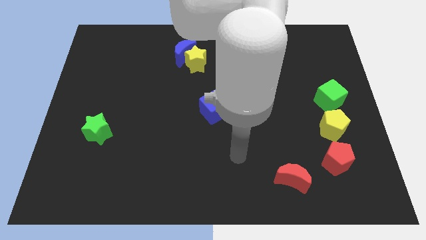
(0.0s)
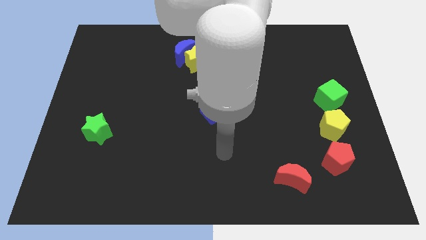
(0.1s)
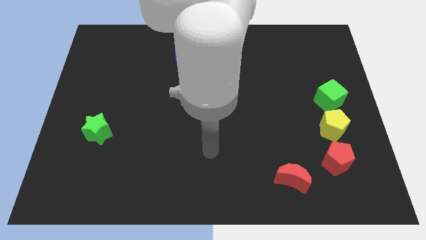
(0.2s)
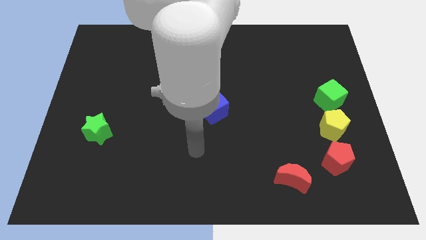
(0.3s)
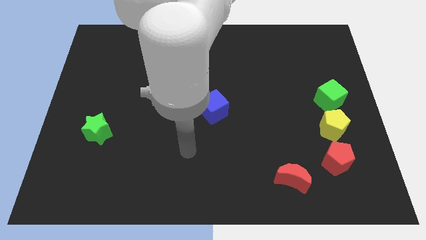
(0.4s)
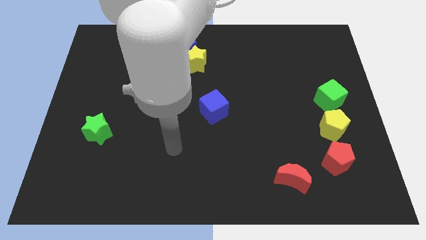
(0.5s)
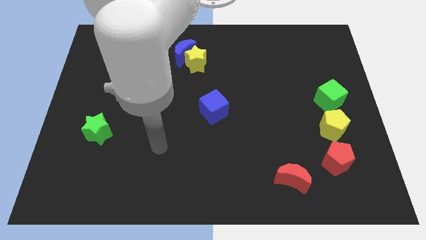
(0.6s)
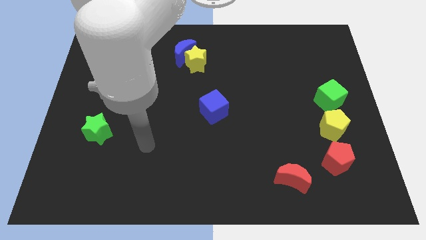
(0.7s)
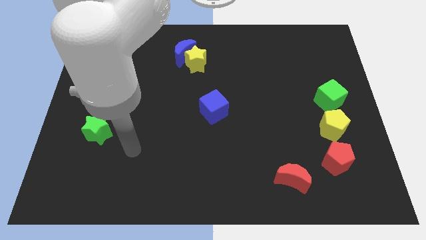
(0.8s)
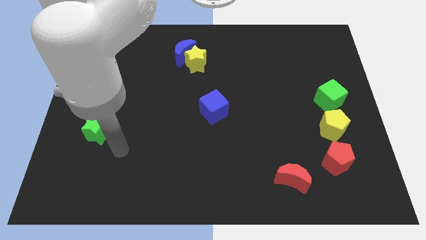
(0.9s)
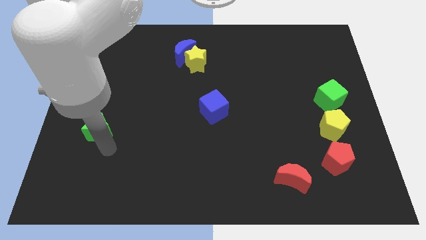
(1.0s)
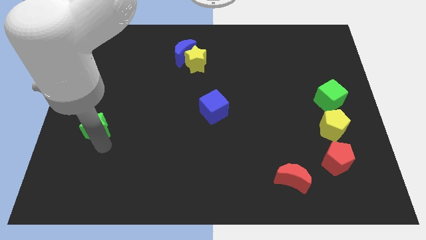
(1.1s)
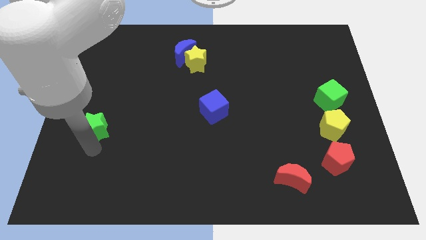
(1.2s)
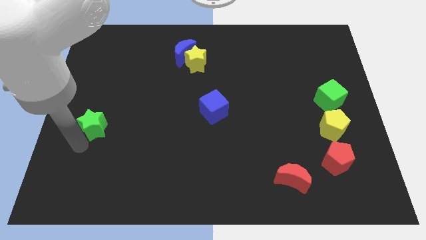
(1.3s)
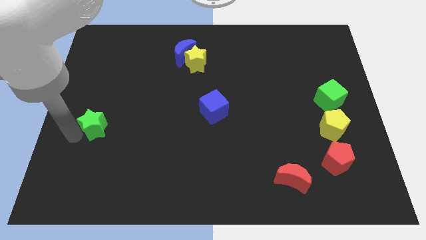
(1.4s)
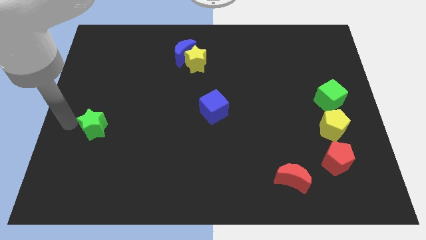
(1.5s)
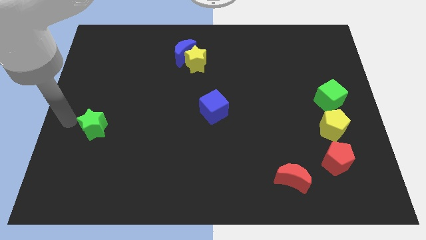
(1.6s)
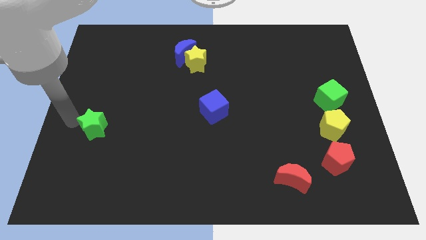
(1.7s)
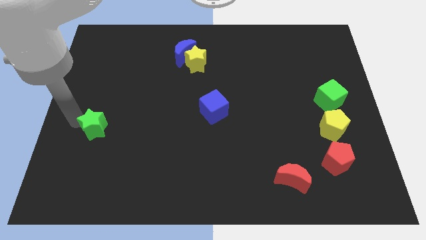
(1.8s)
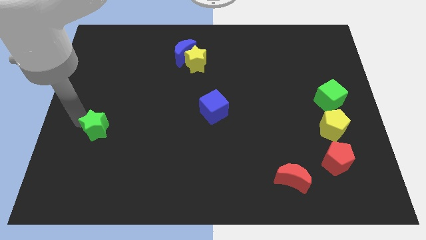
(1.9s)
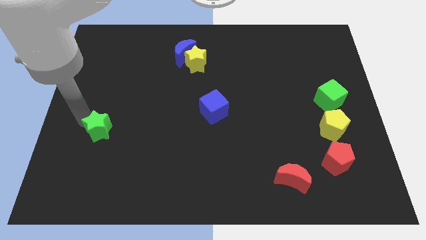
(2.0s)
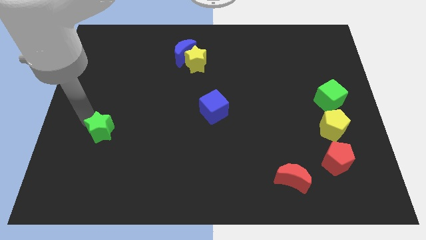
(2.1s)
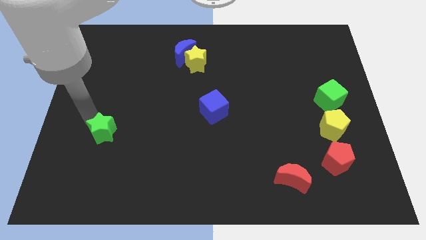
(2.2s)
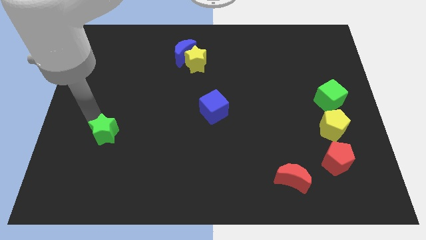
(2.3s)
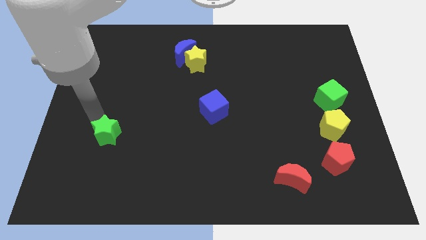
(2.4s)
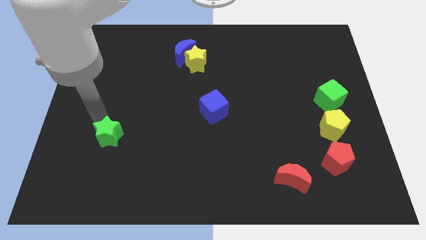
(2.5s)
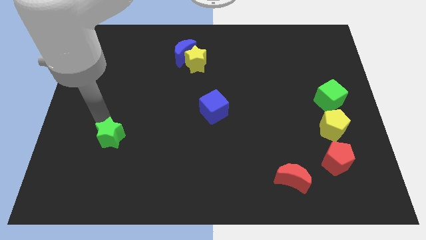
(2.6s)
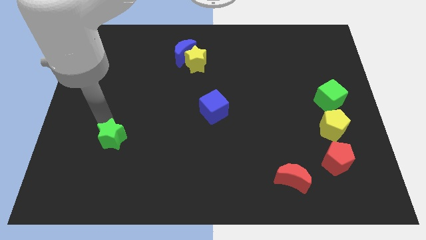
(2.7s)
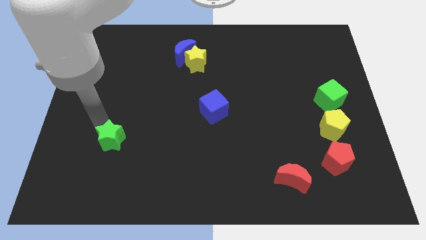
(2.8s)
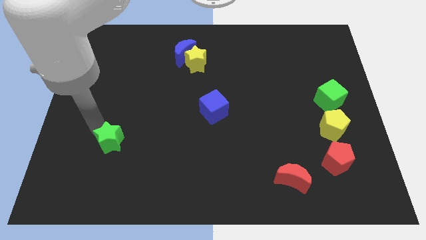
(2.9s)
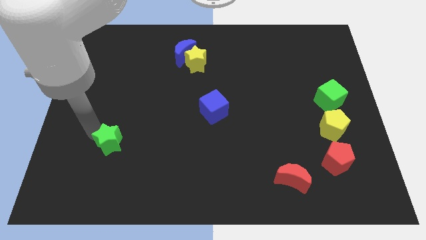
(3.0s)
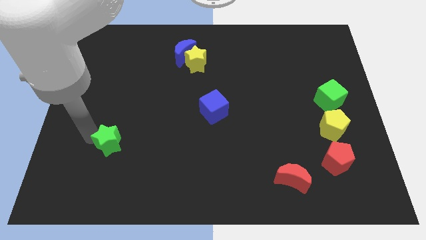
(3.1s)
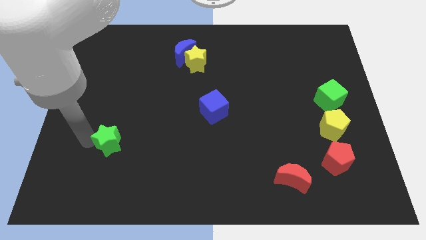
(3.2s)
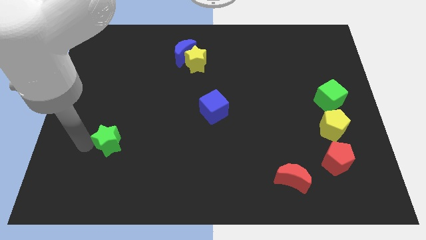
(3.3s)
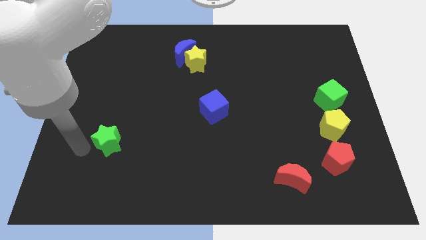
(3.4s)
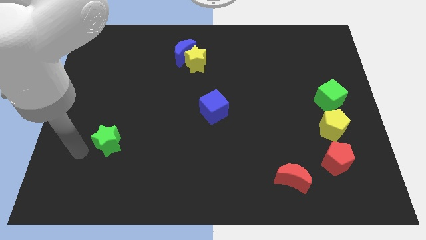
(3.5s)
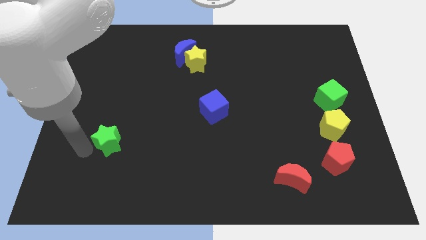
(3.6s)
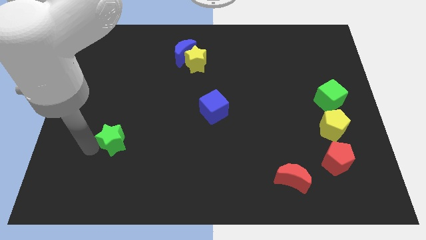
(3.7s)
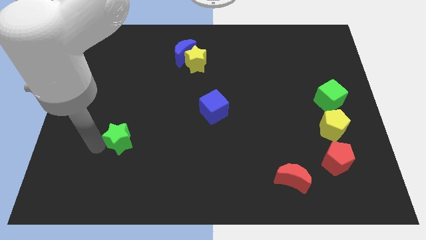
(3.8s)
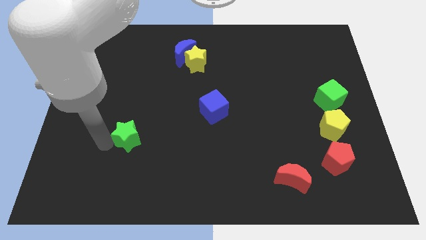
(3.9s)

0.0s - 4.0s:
push the green star right a little

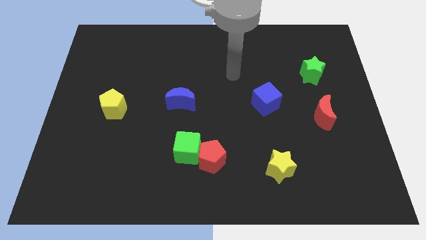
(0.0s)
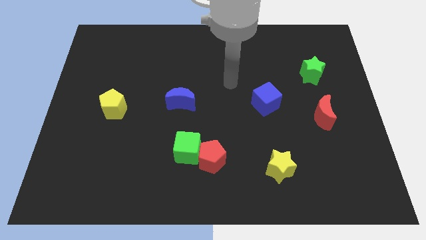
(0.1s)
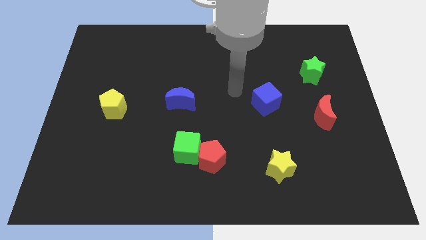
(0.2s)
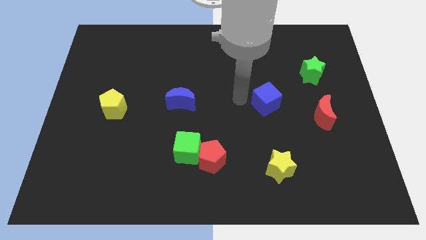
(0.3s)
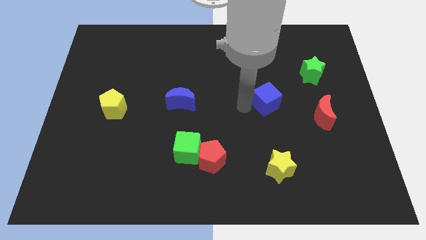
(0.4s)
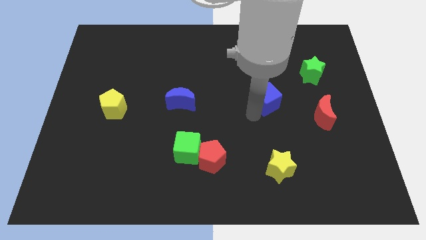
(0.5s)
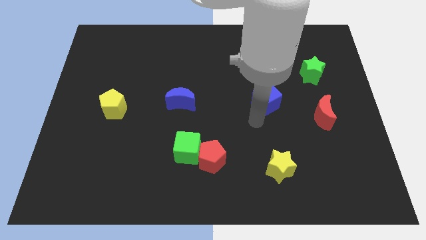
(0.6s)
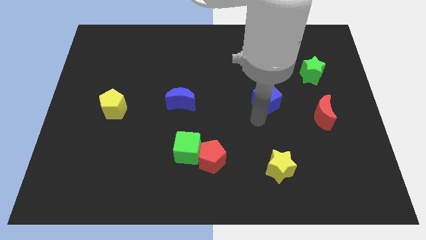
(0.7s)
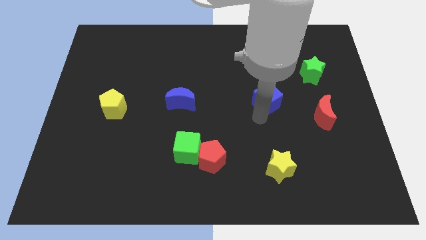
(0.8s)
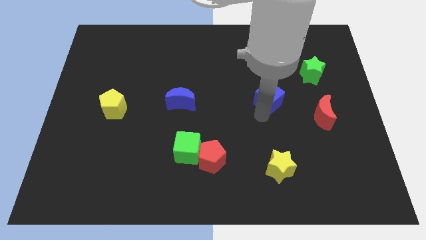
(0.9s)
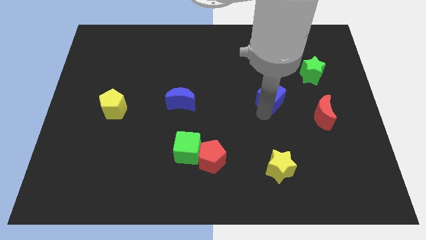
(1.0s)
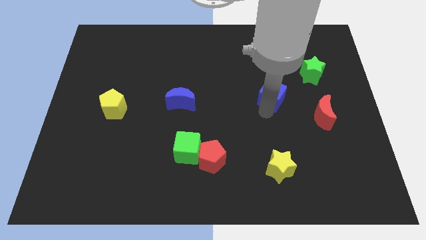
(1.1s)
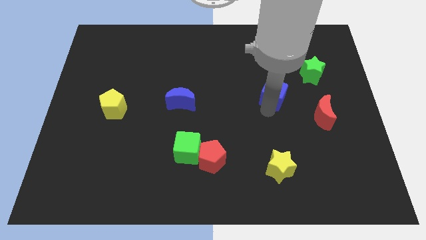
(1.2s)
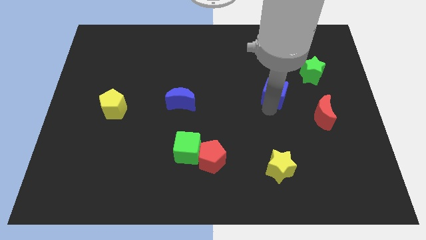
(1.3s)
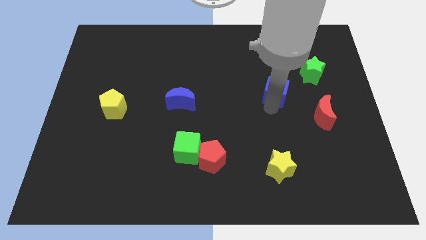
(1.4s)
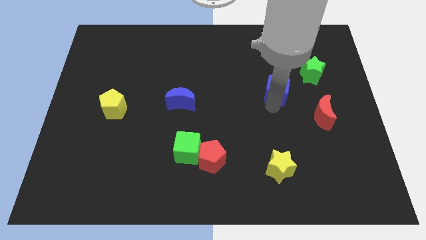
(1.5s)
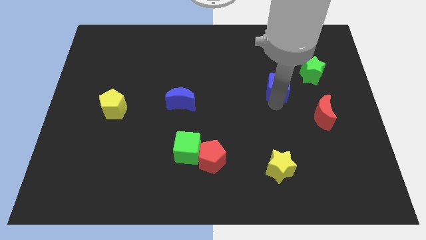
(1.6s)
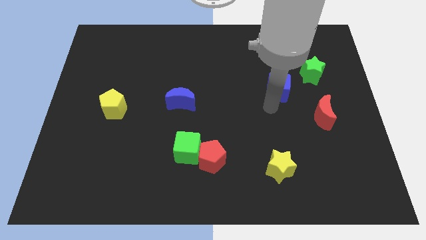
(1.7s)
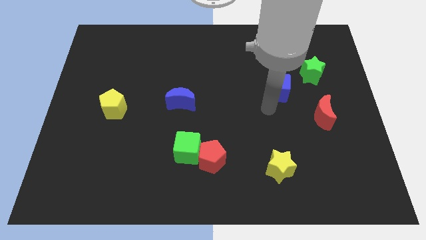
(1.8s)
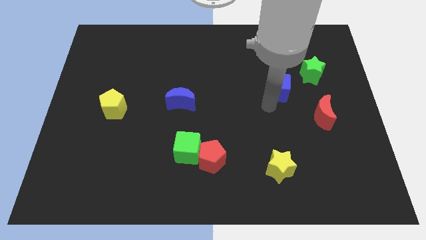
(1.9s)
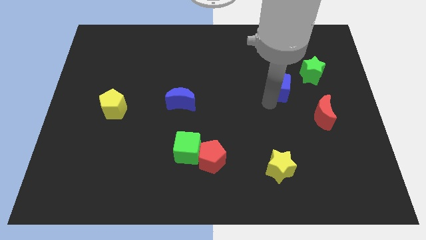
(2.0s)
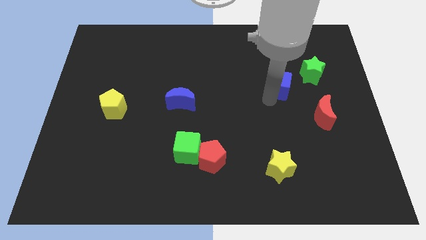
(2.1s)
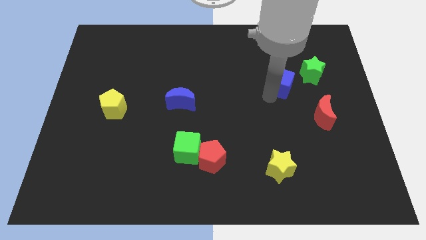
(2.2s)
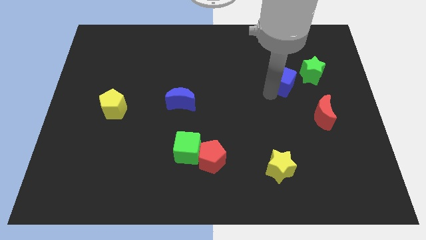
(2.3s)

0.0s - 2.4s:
move the blue cube slightly up and then right

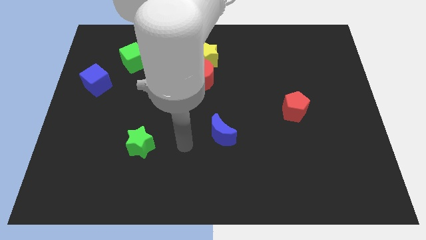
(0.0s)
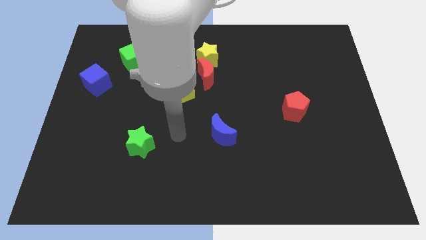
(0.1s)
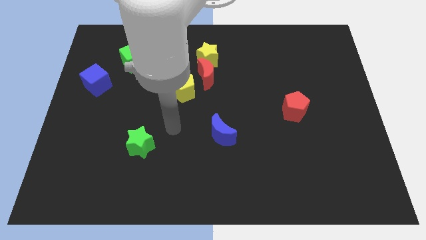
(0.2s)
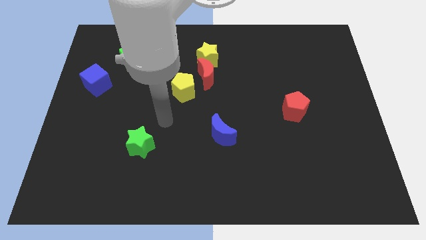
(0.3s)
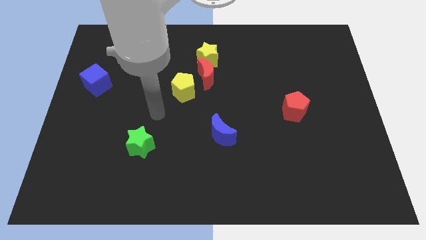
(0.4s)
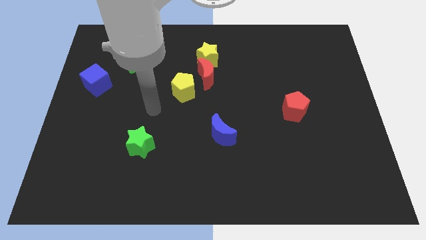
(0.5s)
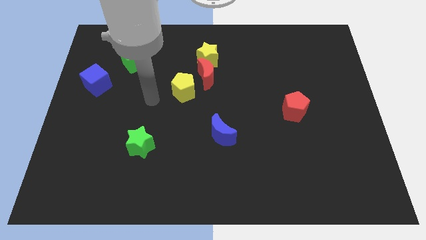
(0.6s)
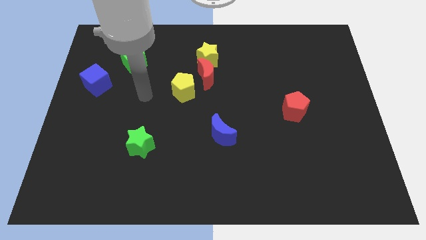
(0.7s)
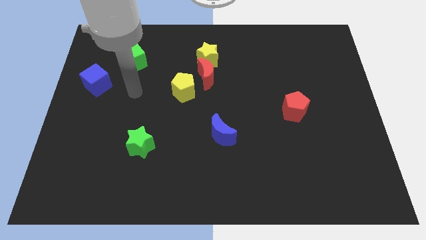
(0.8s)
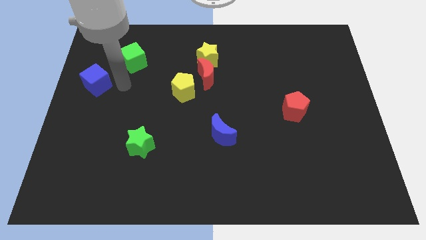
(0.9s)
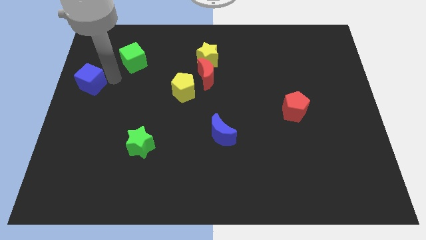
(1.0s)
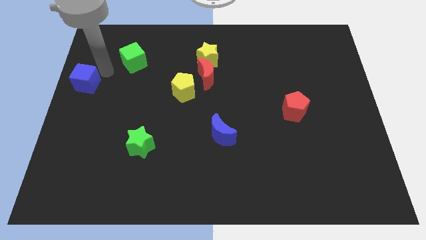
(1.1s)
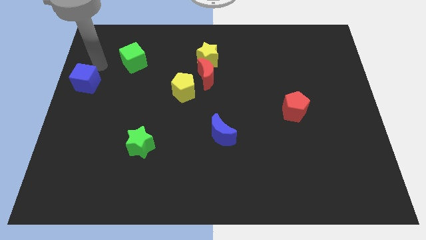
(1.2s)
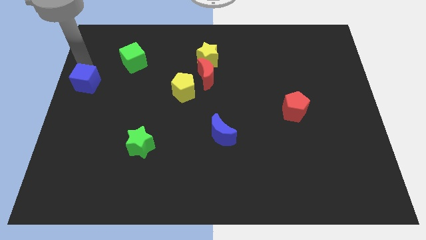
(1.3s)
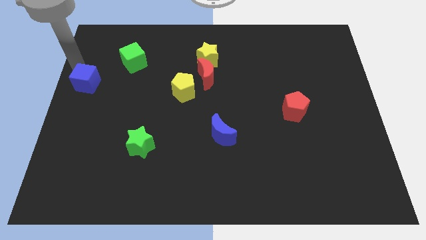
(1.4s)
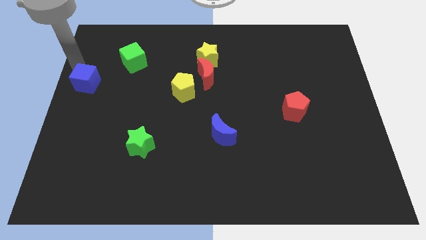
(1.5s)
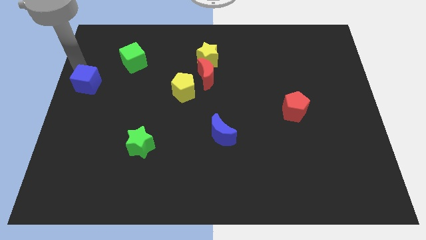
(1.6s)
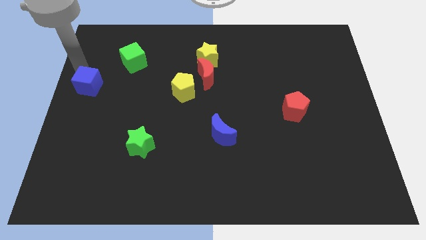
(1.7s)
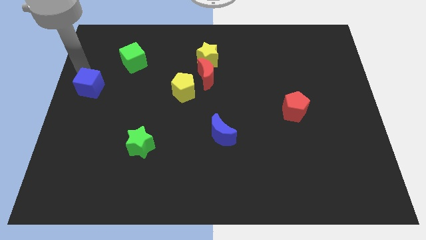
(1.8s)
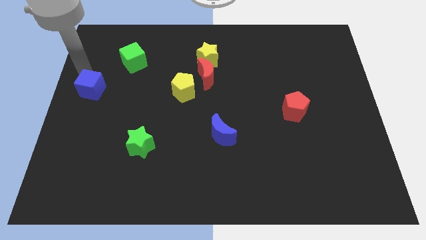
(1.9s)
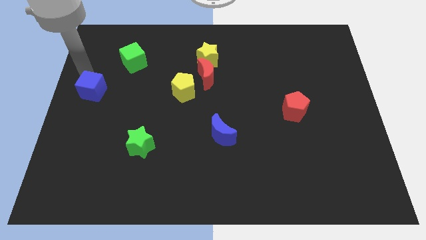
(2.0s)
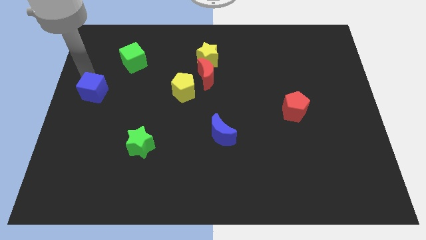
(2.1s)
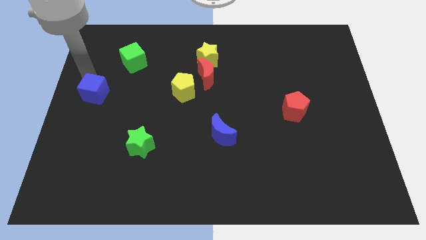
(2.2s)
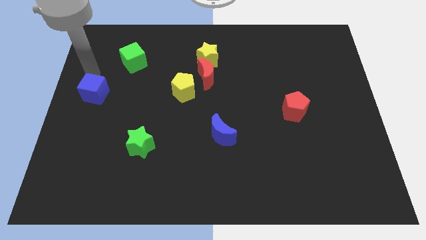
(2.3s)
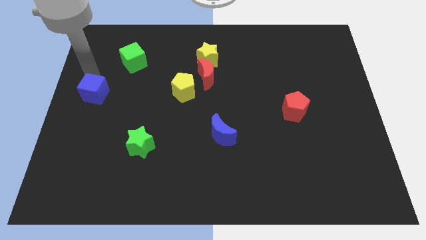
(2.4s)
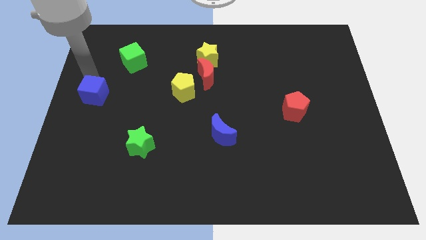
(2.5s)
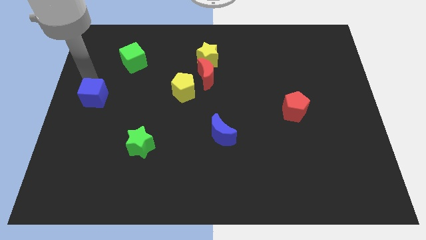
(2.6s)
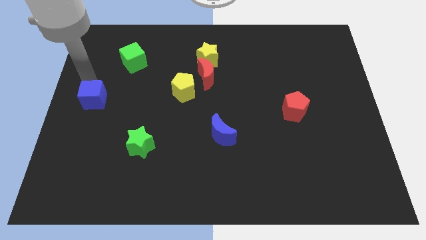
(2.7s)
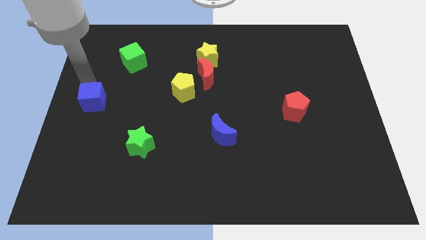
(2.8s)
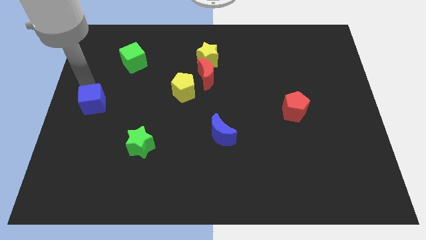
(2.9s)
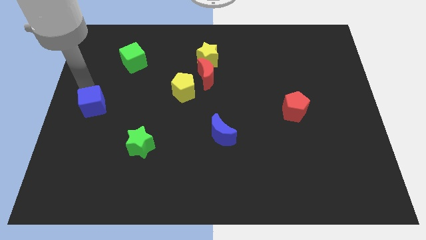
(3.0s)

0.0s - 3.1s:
slide the blue cube slightly downwards
